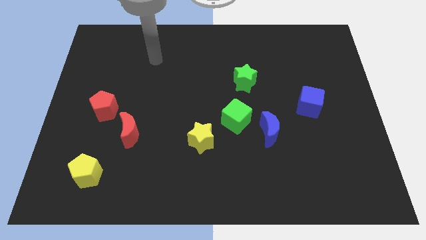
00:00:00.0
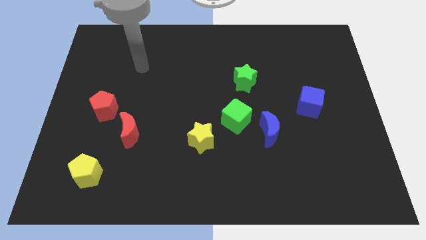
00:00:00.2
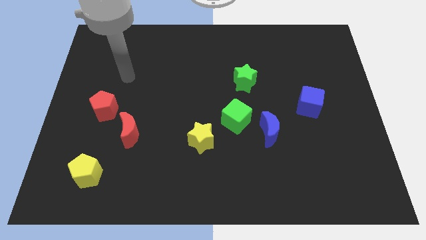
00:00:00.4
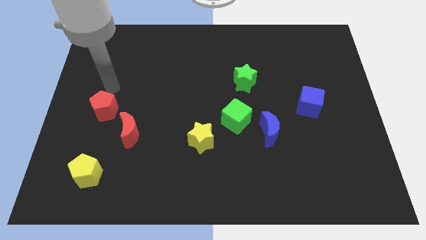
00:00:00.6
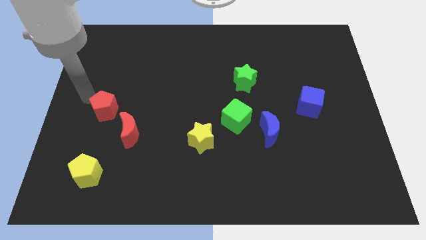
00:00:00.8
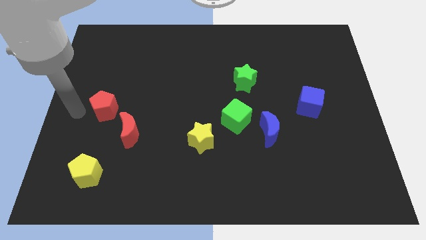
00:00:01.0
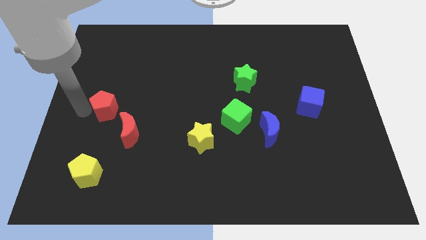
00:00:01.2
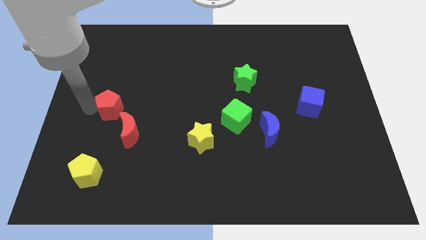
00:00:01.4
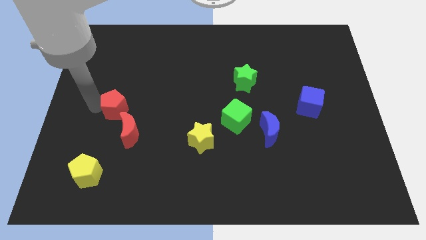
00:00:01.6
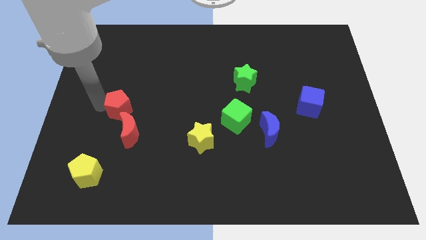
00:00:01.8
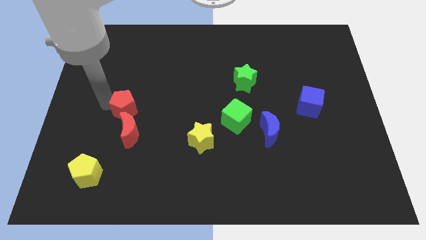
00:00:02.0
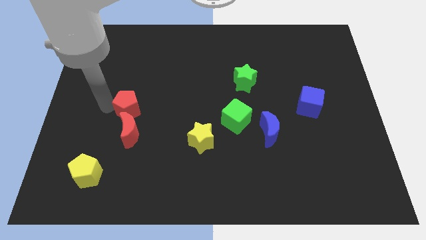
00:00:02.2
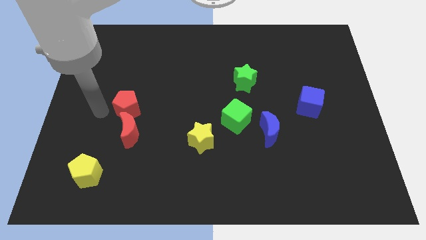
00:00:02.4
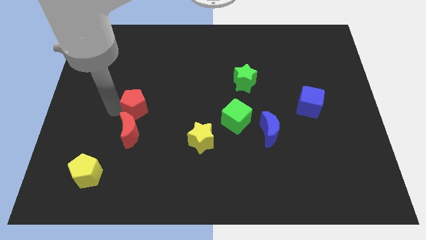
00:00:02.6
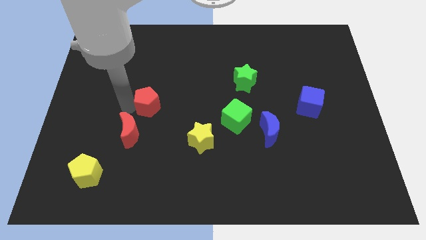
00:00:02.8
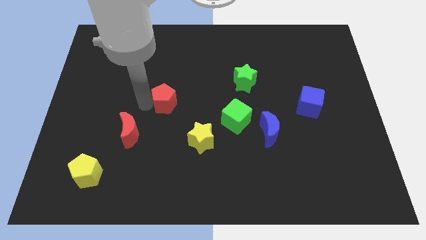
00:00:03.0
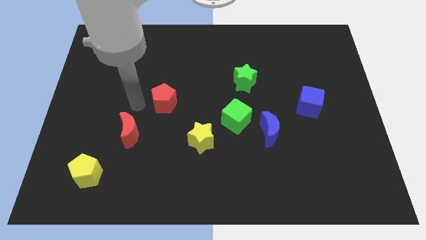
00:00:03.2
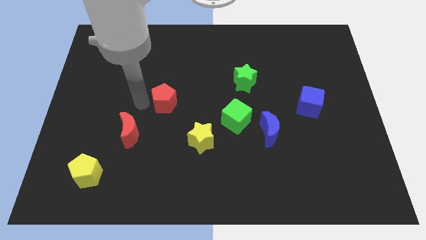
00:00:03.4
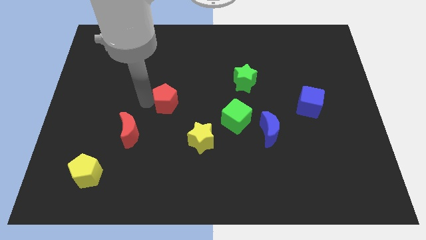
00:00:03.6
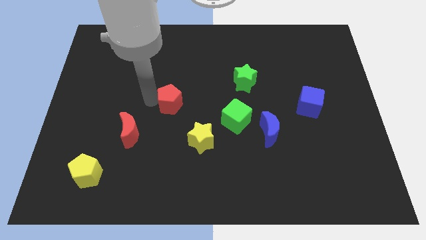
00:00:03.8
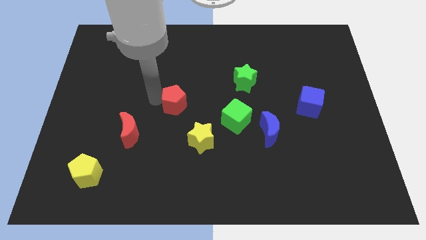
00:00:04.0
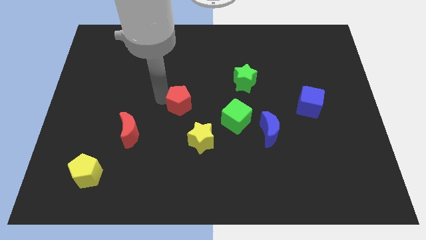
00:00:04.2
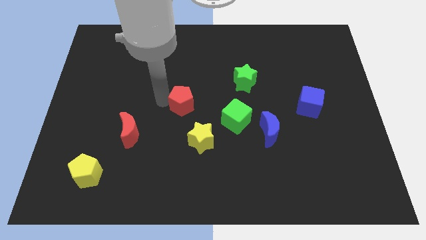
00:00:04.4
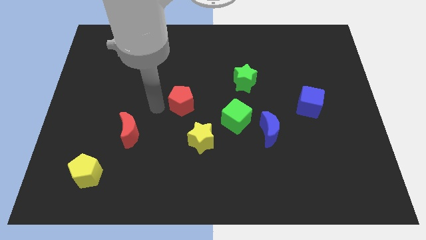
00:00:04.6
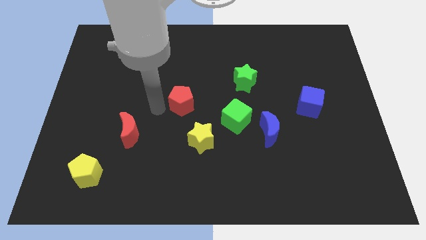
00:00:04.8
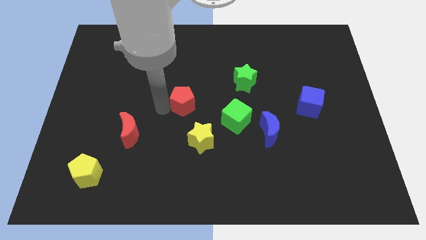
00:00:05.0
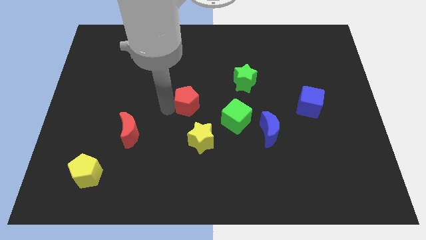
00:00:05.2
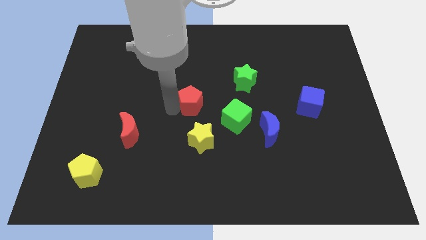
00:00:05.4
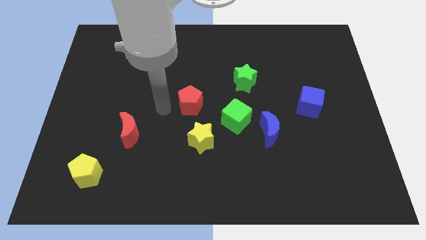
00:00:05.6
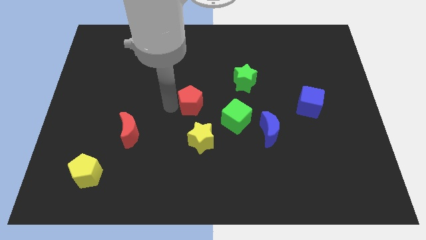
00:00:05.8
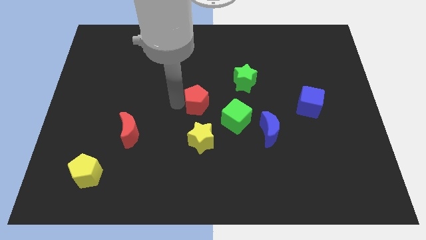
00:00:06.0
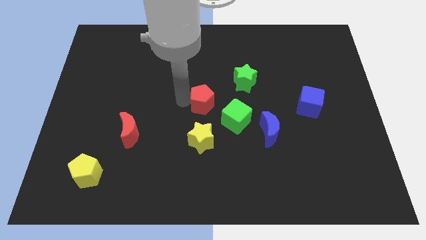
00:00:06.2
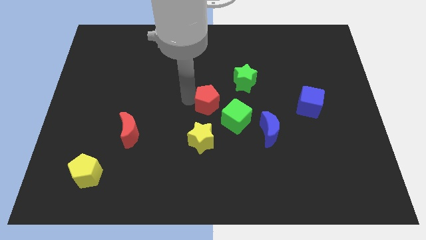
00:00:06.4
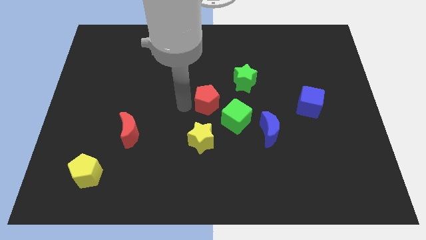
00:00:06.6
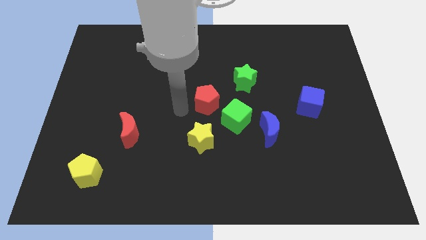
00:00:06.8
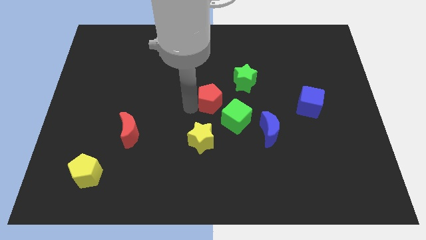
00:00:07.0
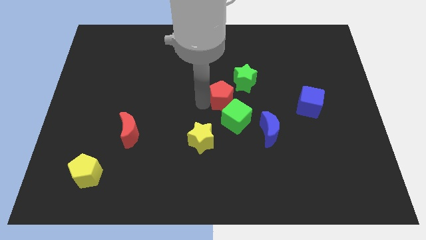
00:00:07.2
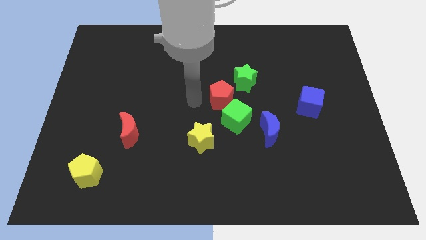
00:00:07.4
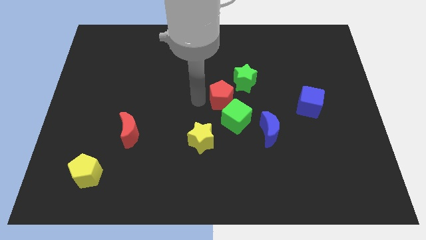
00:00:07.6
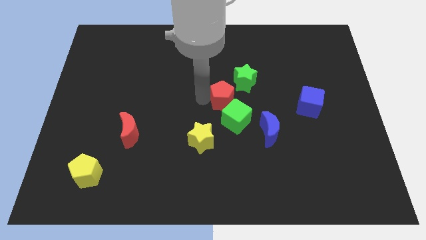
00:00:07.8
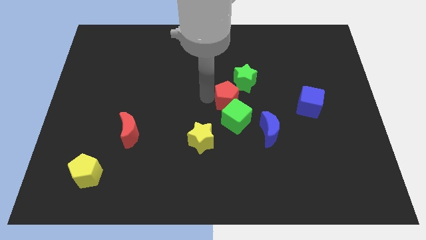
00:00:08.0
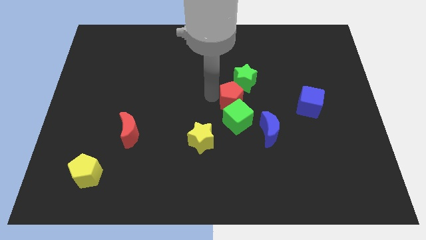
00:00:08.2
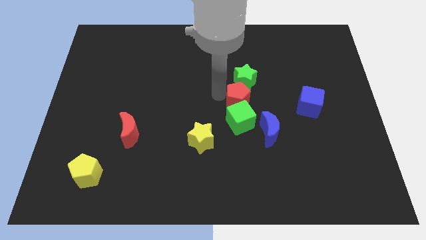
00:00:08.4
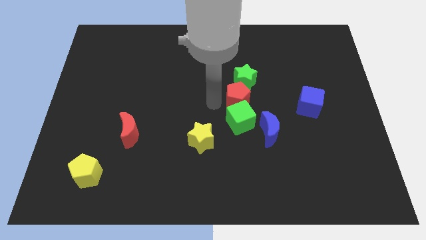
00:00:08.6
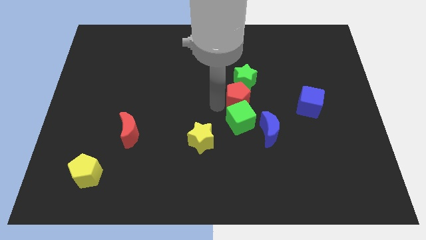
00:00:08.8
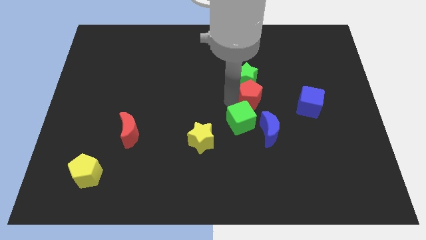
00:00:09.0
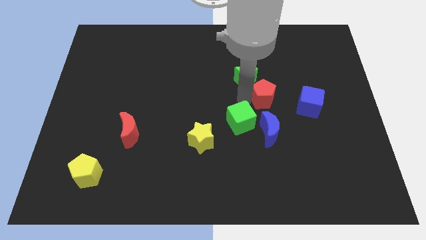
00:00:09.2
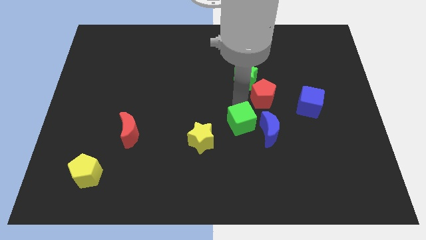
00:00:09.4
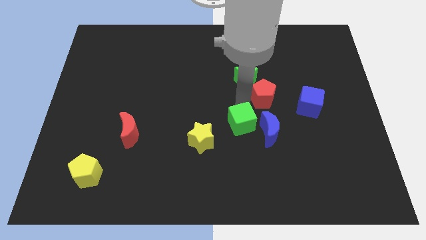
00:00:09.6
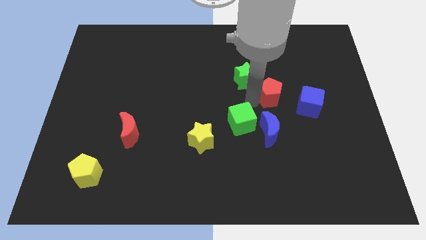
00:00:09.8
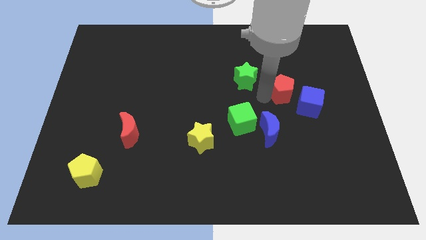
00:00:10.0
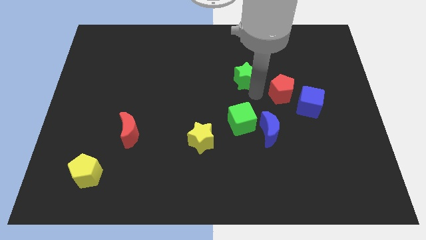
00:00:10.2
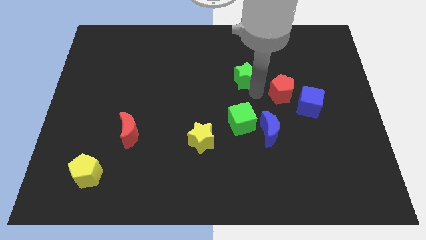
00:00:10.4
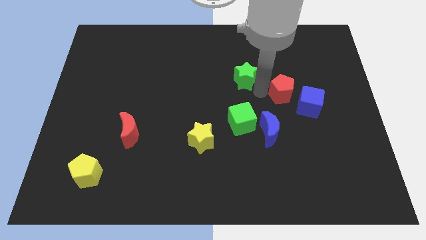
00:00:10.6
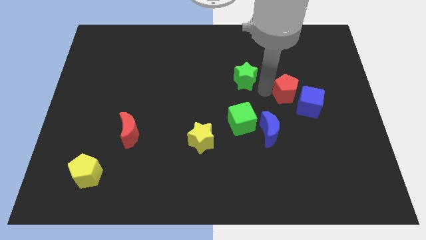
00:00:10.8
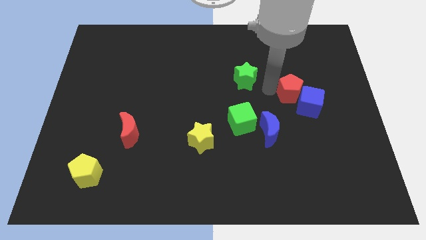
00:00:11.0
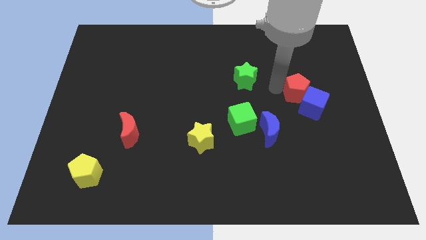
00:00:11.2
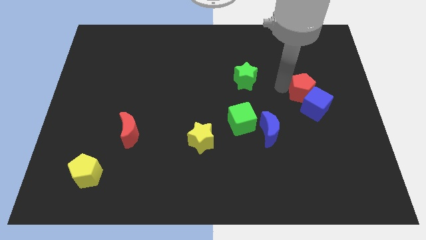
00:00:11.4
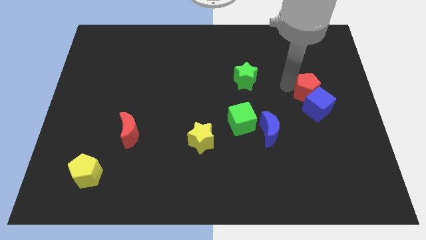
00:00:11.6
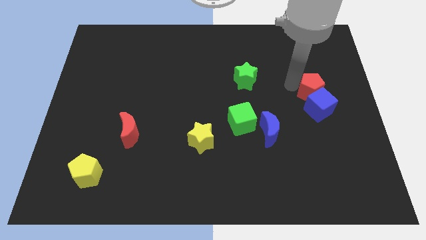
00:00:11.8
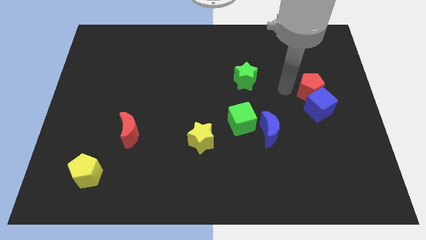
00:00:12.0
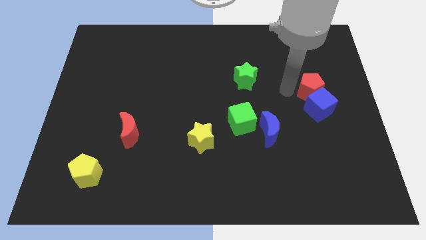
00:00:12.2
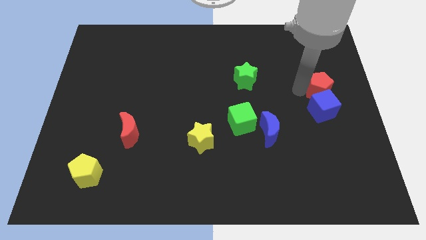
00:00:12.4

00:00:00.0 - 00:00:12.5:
put the red pentagon to the center right
